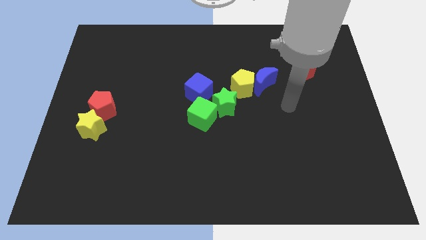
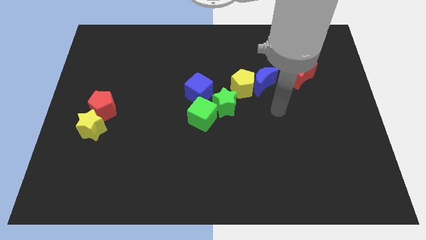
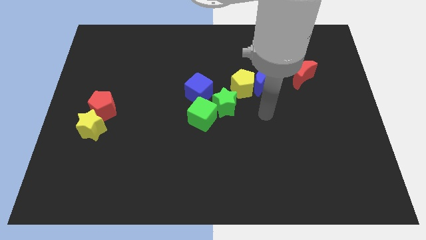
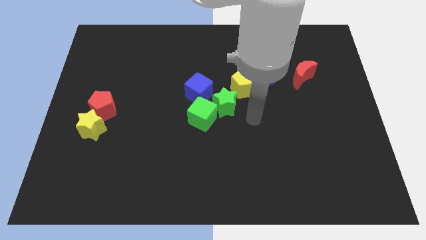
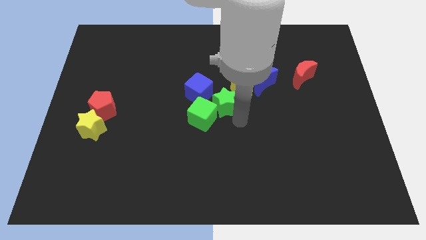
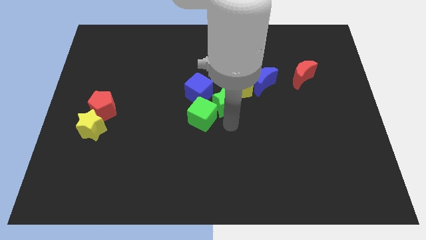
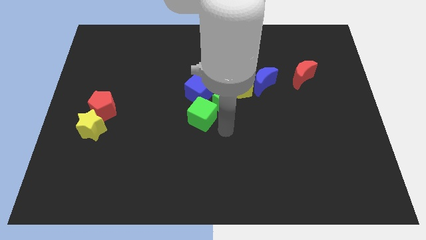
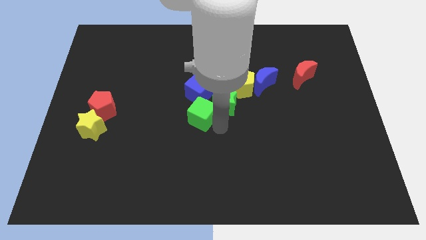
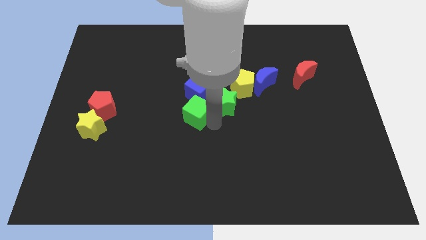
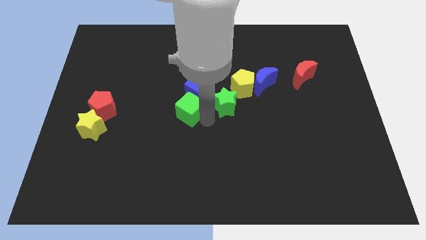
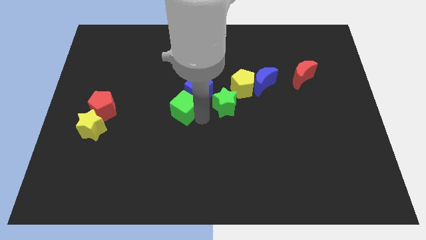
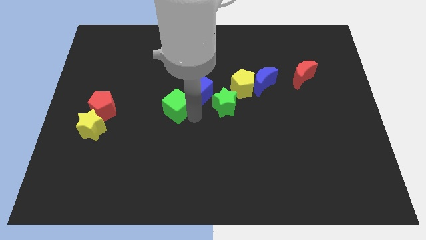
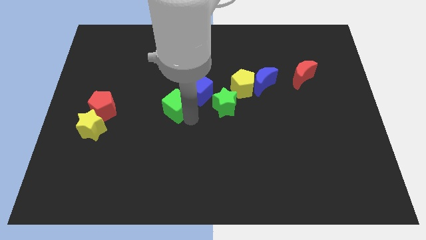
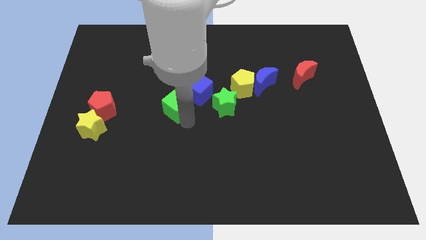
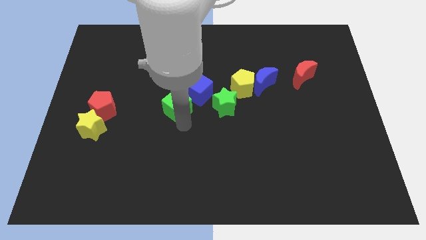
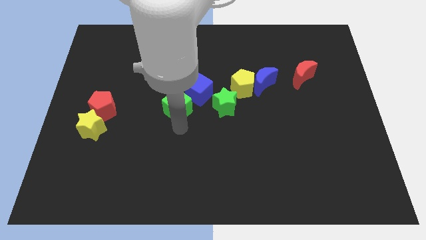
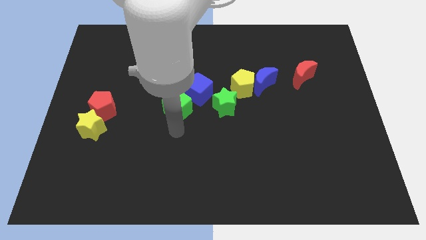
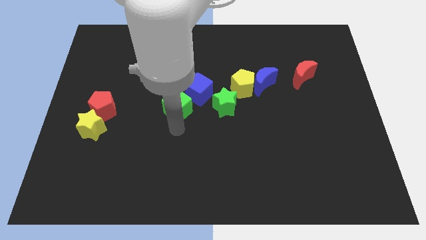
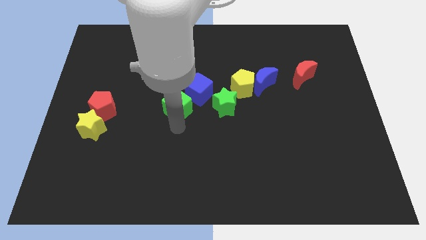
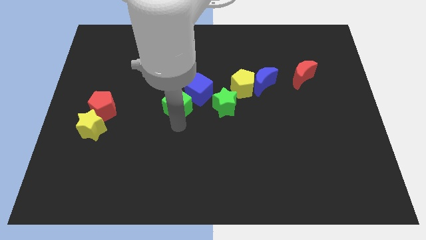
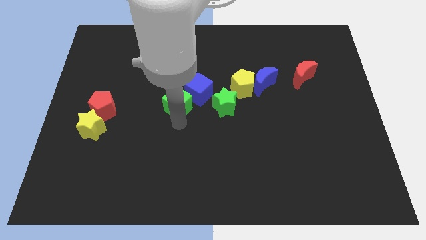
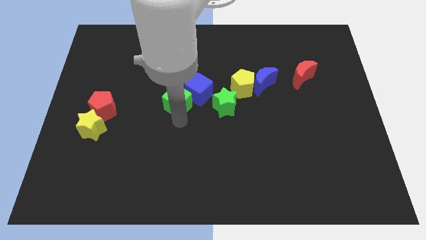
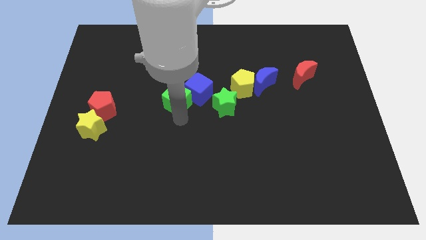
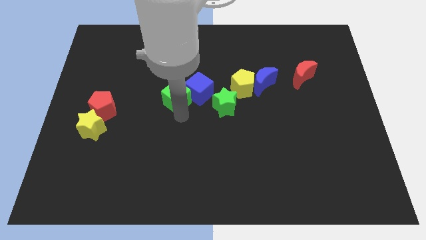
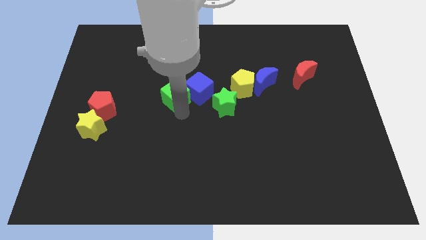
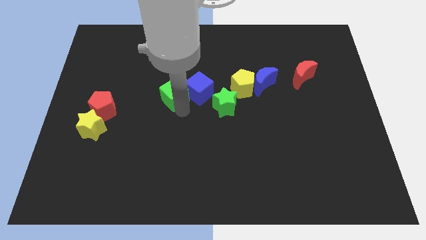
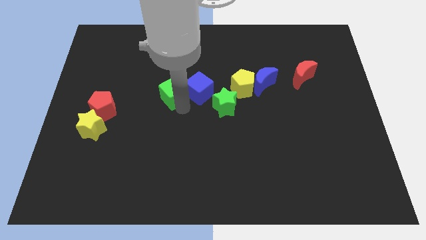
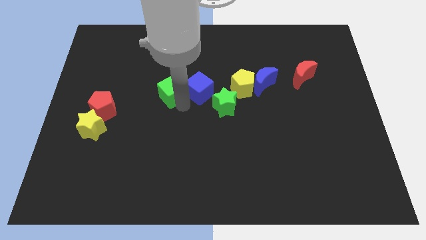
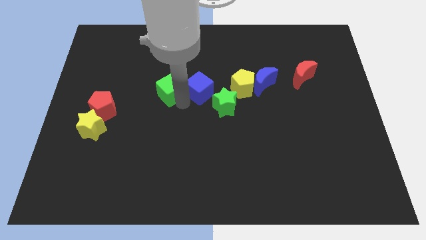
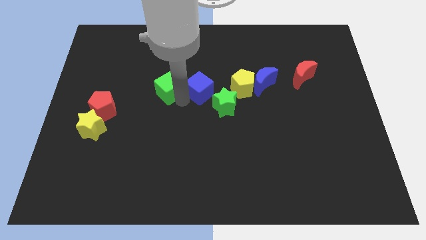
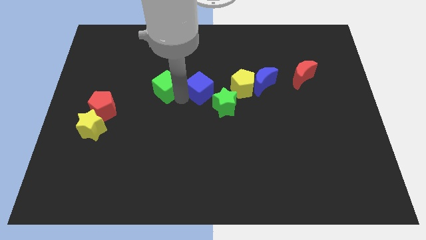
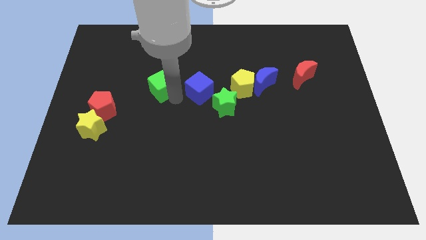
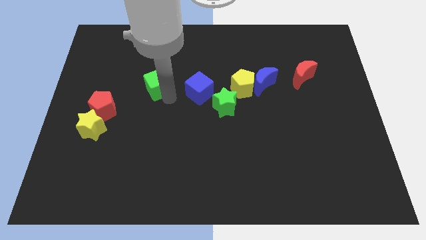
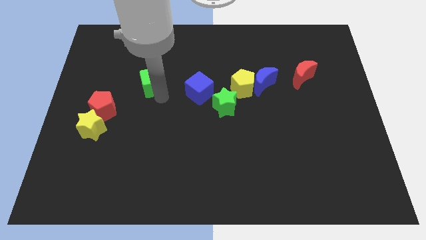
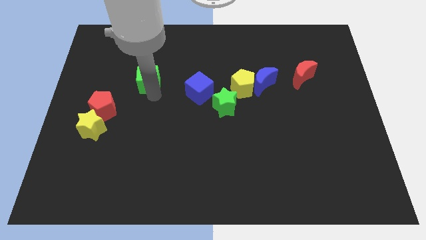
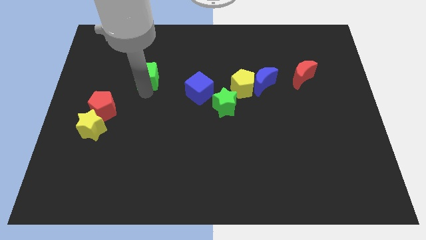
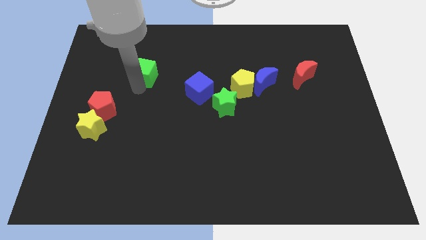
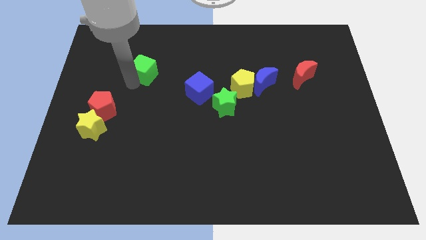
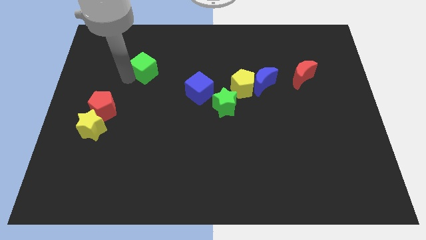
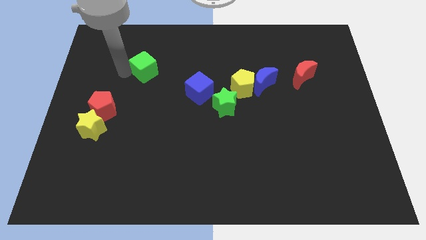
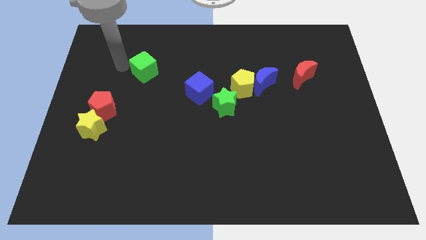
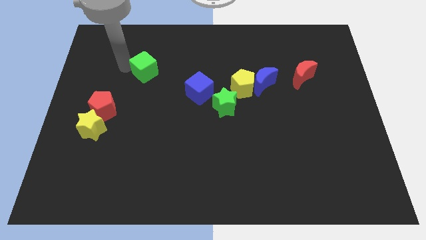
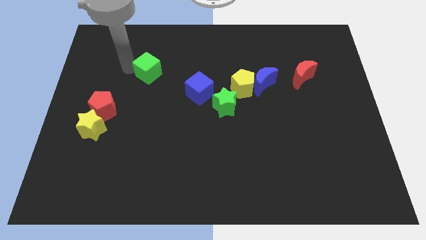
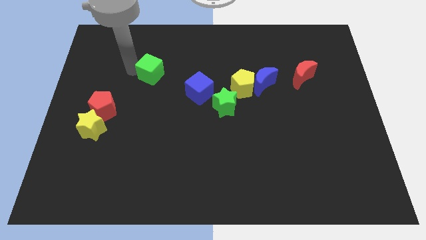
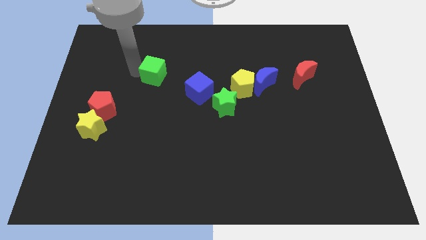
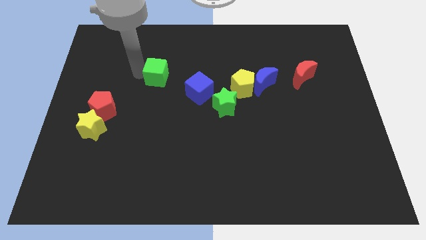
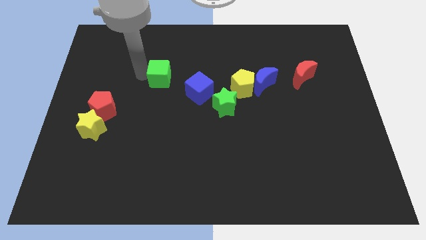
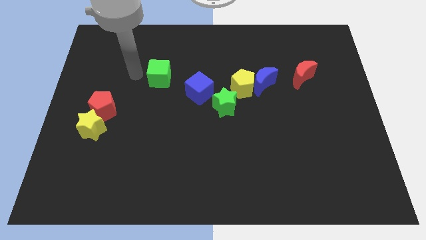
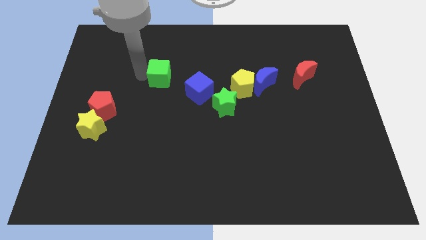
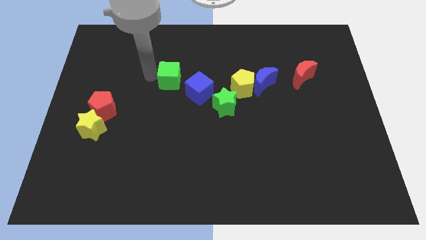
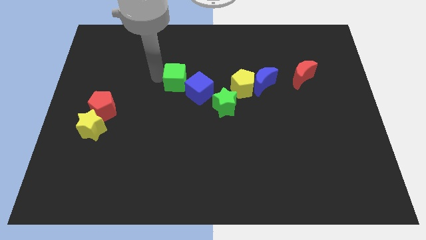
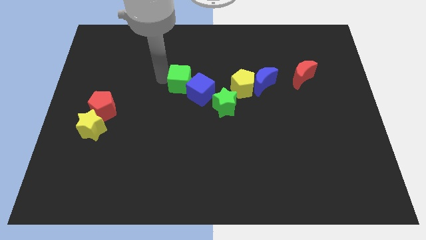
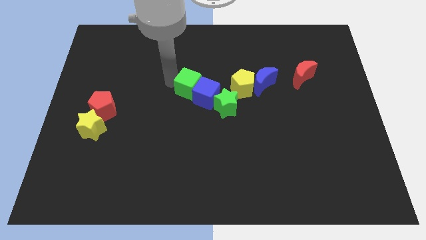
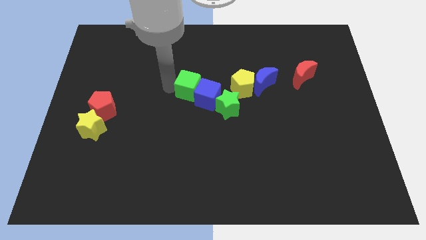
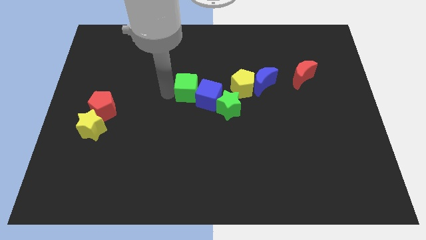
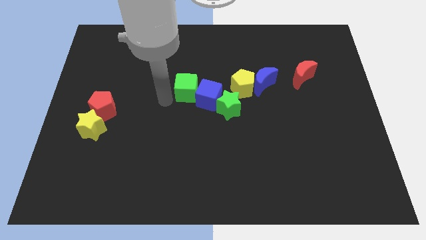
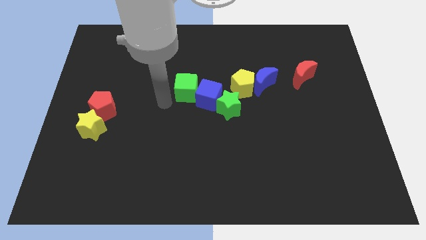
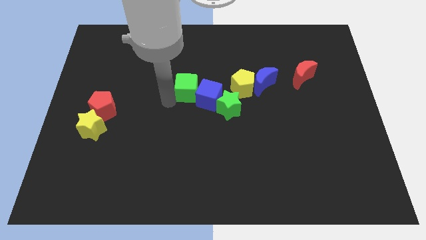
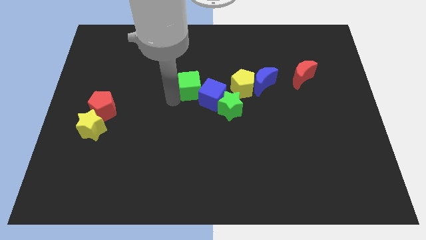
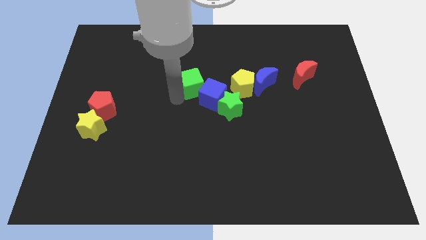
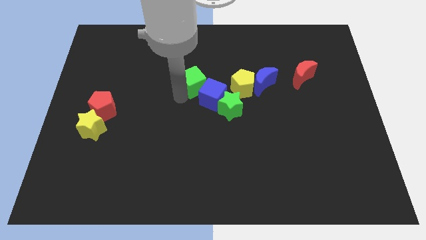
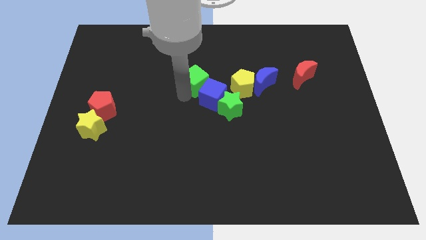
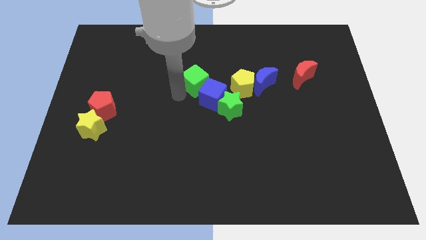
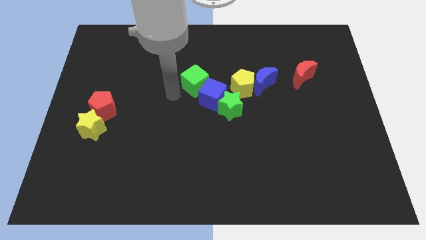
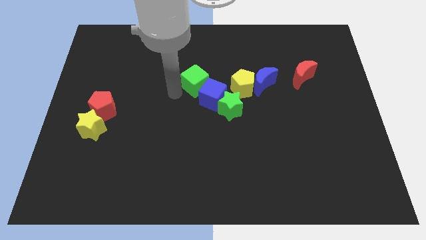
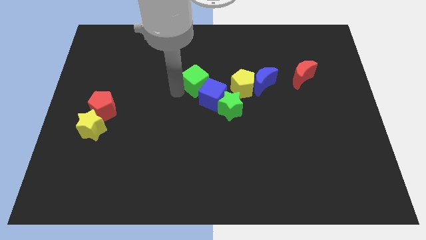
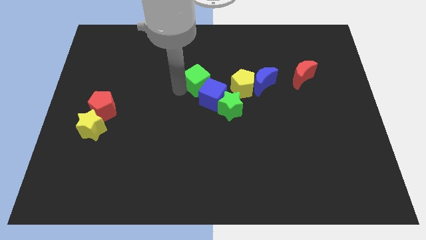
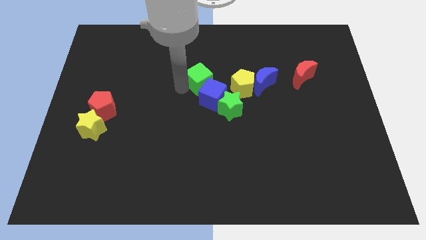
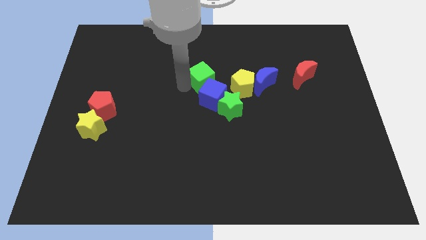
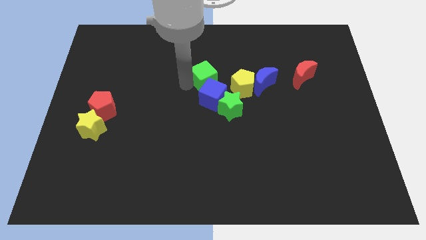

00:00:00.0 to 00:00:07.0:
push the green cube diagonally up and to the left of the yellow pentagon
